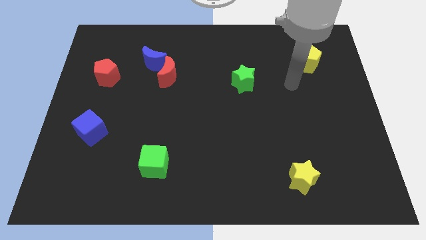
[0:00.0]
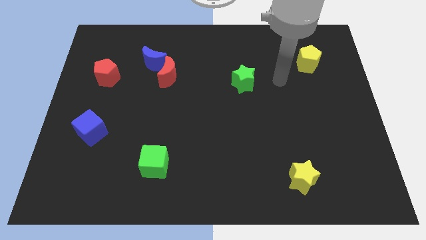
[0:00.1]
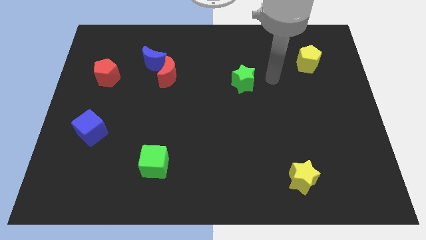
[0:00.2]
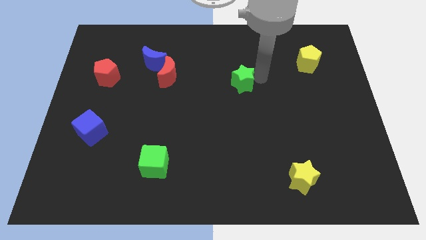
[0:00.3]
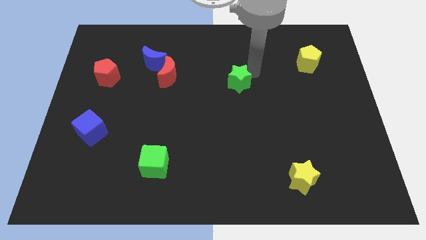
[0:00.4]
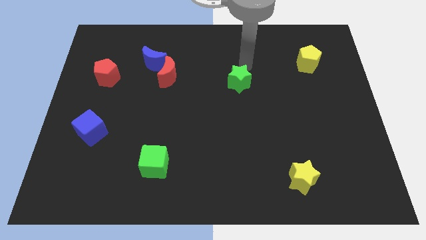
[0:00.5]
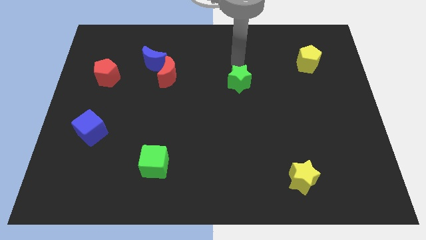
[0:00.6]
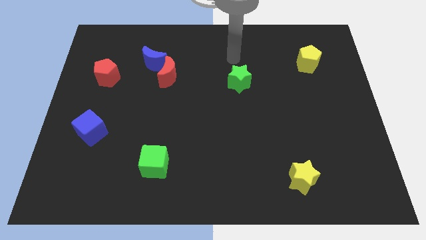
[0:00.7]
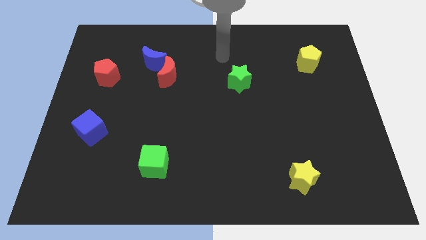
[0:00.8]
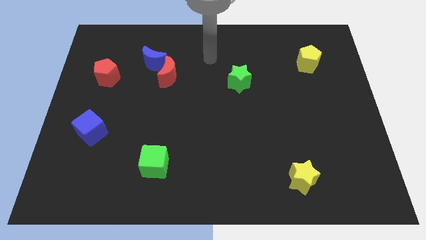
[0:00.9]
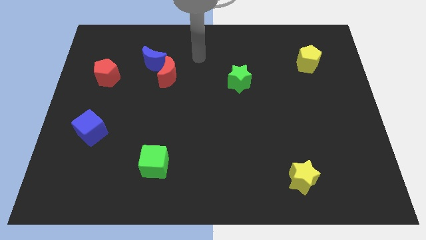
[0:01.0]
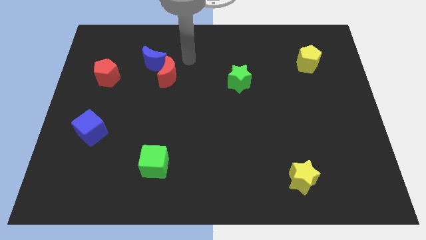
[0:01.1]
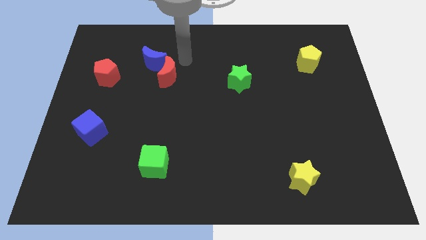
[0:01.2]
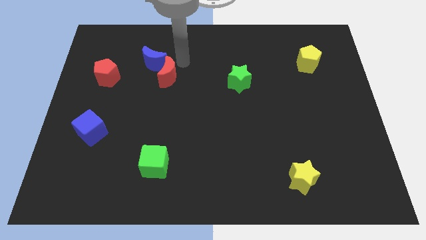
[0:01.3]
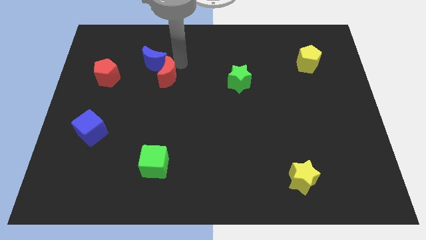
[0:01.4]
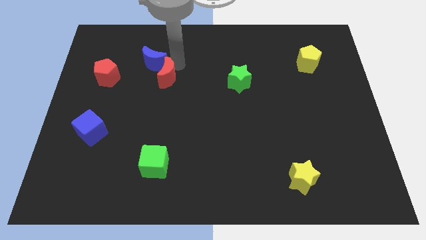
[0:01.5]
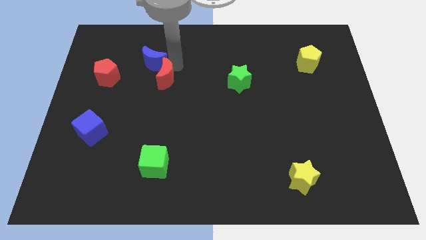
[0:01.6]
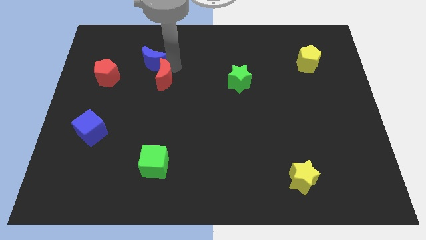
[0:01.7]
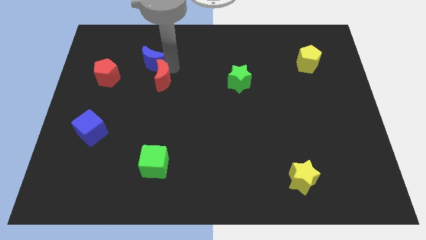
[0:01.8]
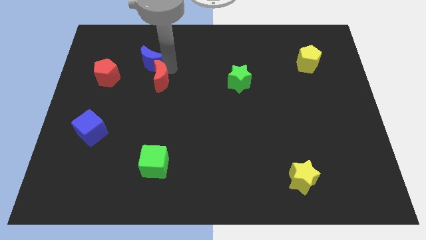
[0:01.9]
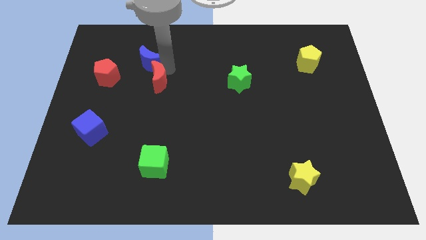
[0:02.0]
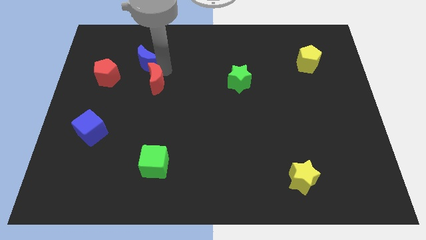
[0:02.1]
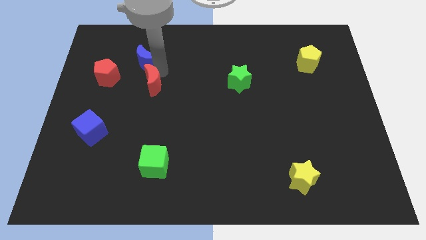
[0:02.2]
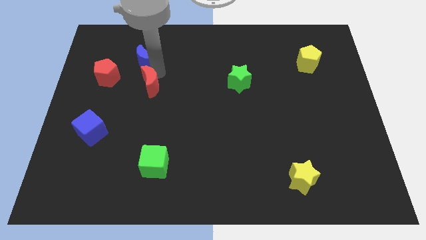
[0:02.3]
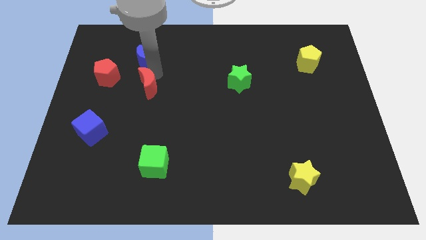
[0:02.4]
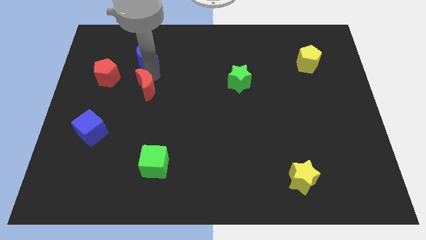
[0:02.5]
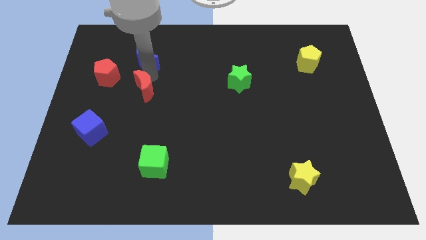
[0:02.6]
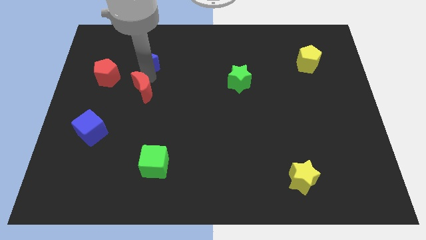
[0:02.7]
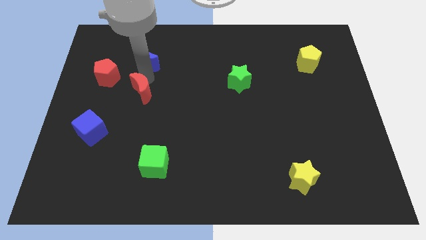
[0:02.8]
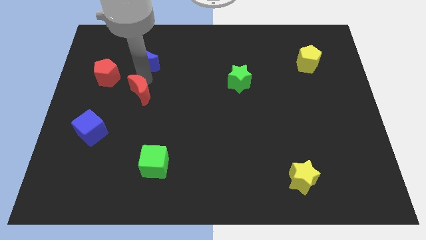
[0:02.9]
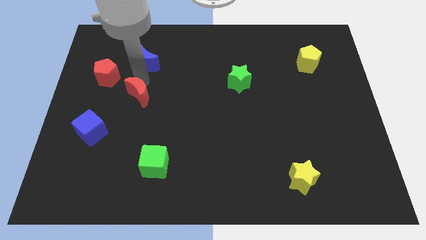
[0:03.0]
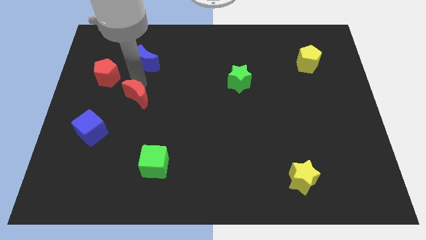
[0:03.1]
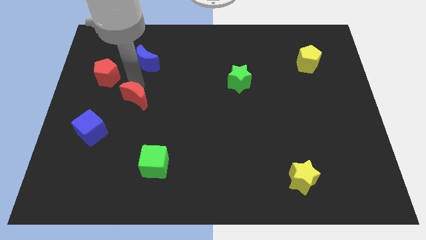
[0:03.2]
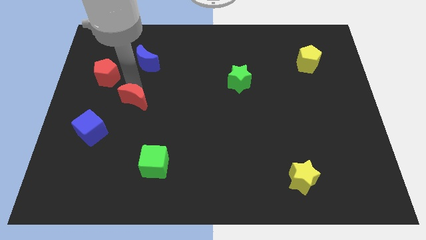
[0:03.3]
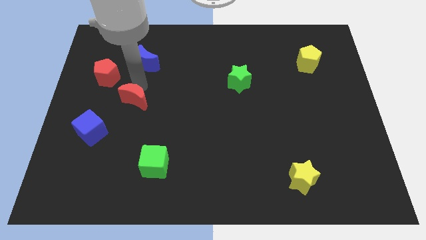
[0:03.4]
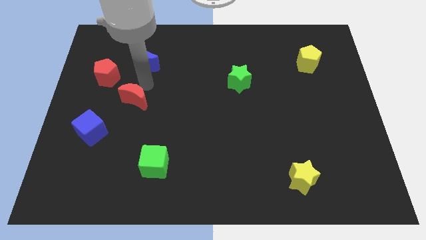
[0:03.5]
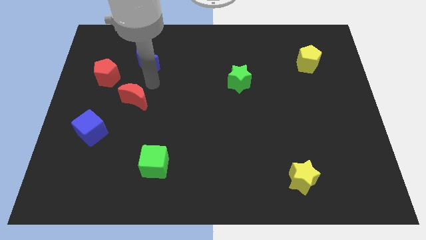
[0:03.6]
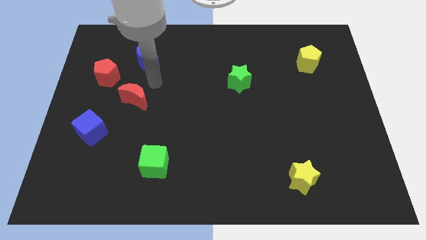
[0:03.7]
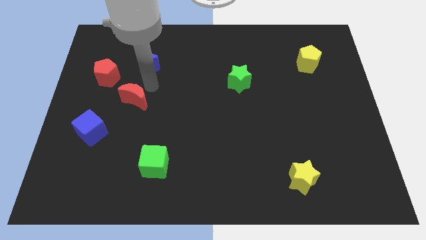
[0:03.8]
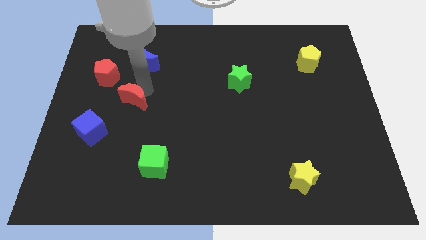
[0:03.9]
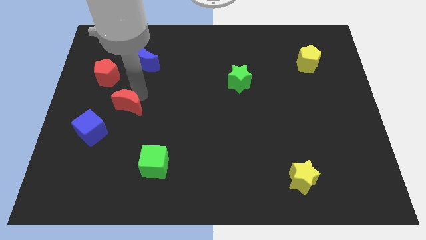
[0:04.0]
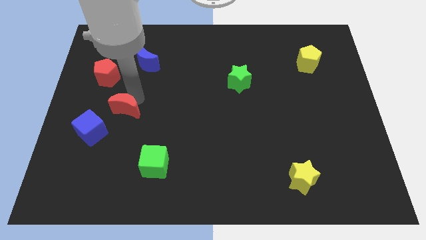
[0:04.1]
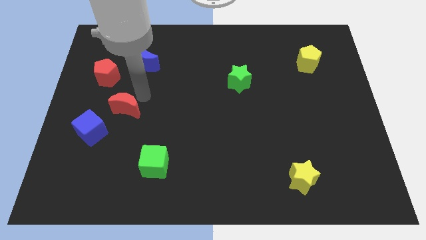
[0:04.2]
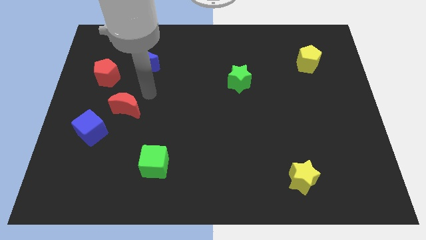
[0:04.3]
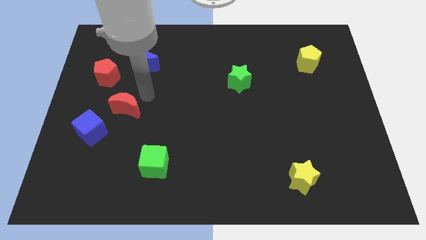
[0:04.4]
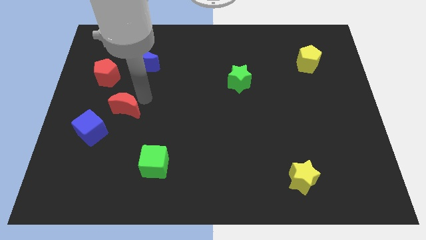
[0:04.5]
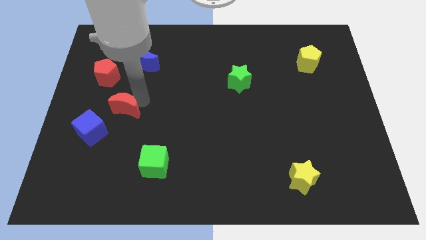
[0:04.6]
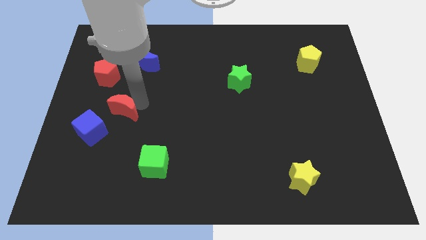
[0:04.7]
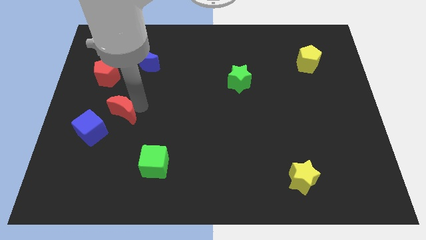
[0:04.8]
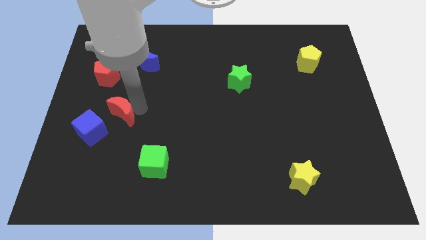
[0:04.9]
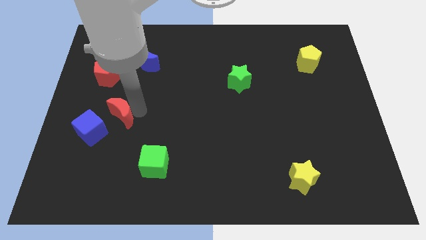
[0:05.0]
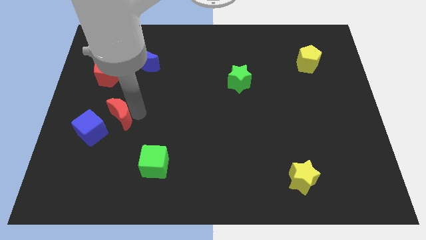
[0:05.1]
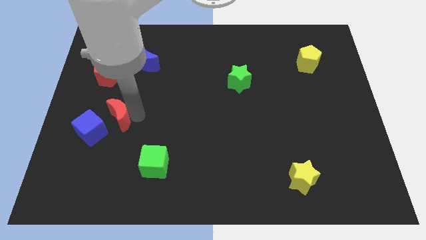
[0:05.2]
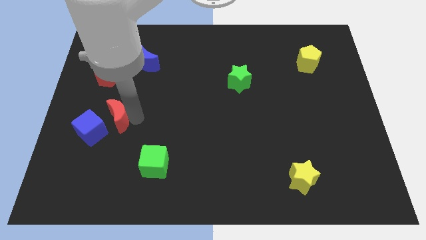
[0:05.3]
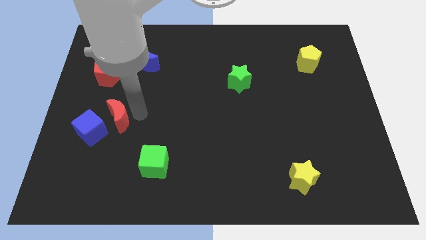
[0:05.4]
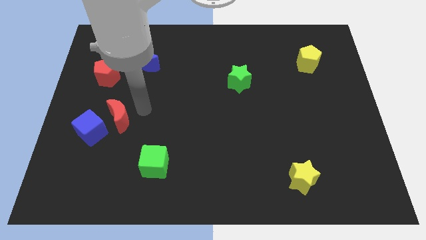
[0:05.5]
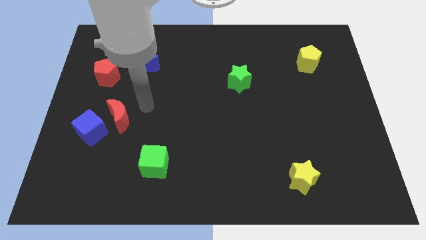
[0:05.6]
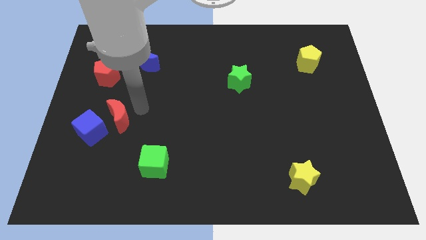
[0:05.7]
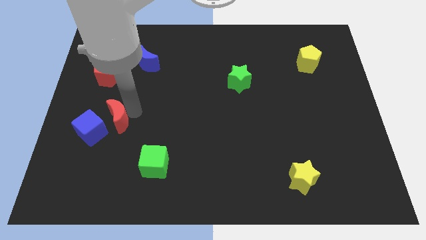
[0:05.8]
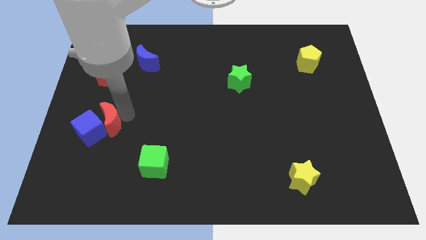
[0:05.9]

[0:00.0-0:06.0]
move the red moon next to the blue cube

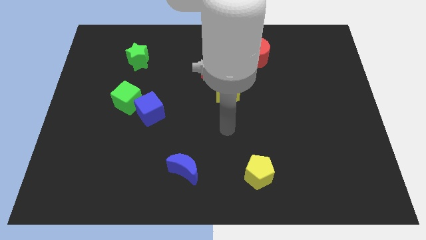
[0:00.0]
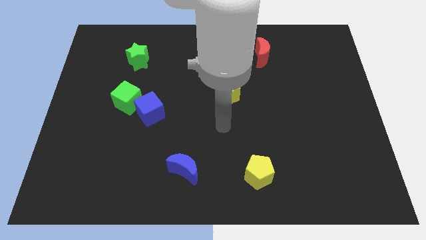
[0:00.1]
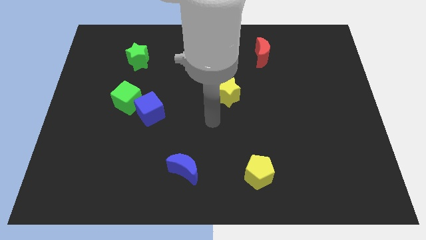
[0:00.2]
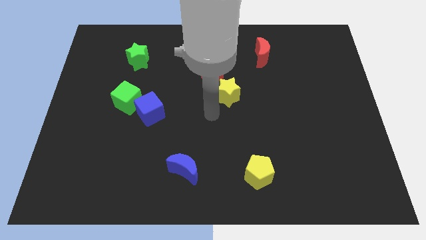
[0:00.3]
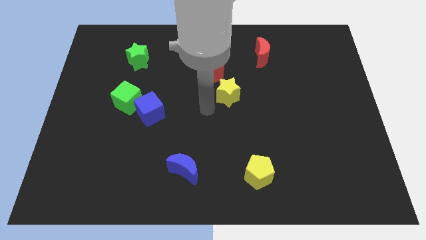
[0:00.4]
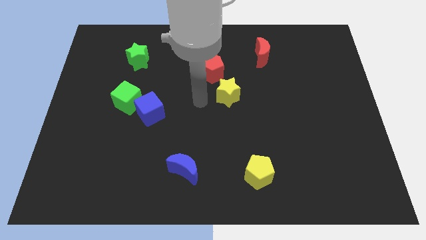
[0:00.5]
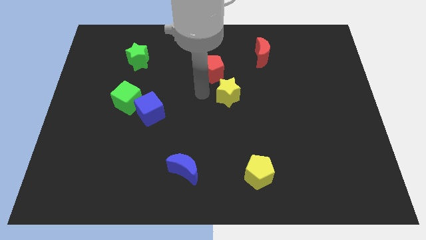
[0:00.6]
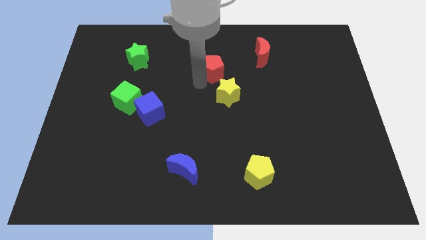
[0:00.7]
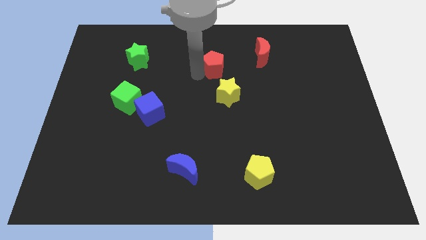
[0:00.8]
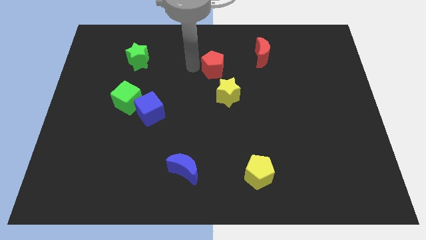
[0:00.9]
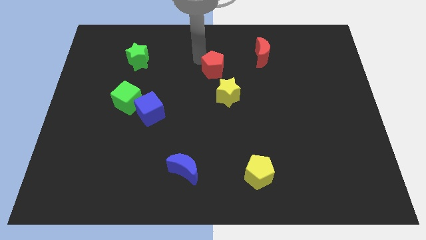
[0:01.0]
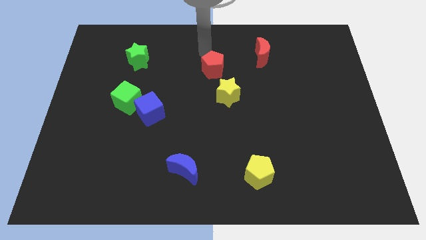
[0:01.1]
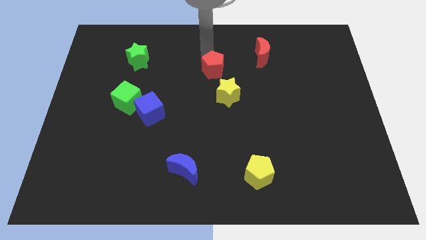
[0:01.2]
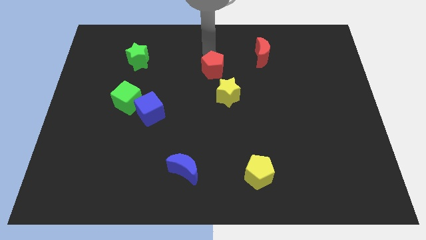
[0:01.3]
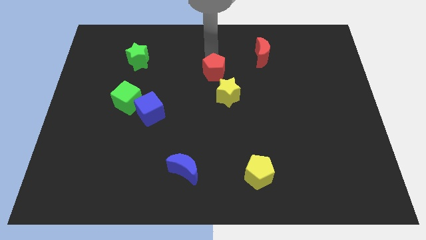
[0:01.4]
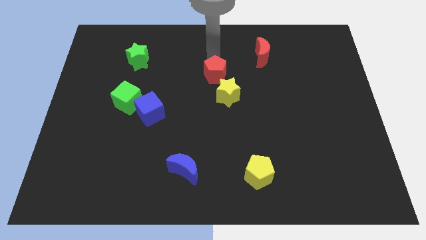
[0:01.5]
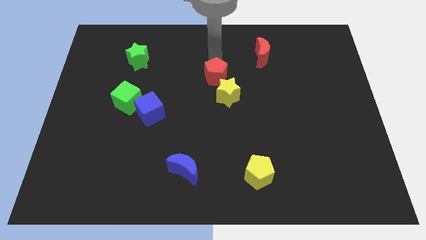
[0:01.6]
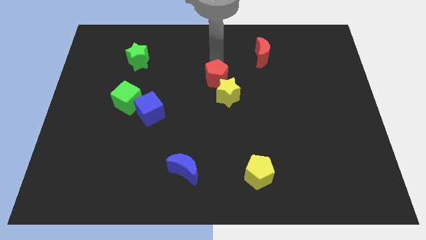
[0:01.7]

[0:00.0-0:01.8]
slide the red pentagon next to the yellow star
